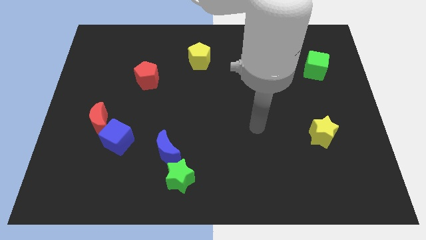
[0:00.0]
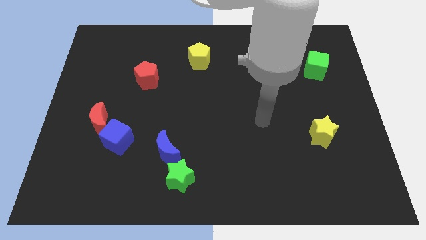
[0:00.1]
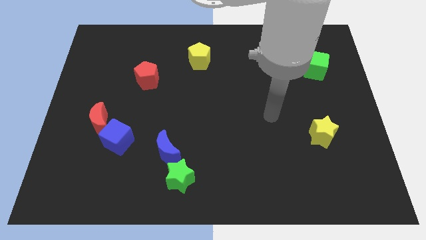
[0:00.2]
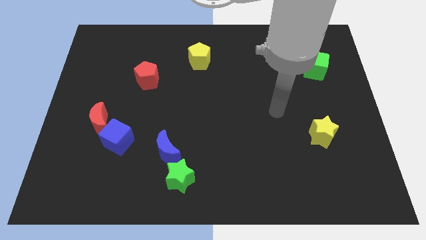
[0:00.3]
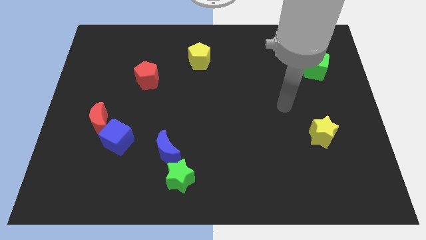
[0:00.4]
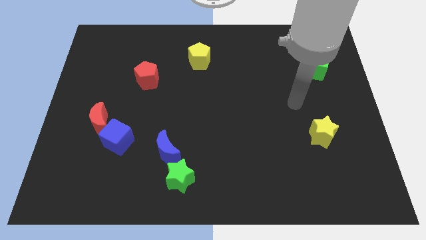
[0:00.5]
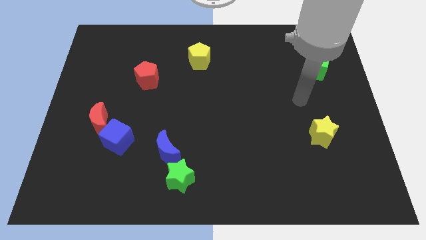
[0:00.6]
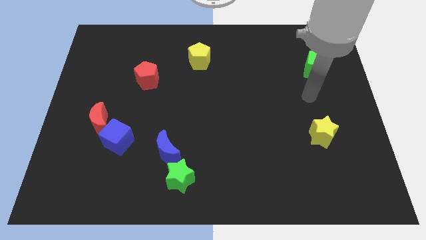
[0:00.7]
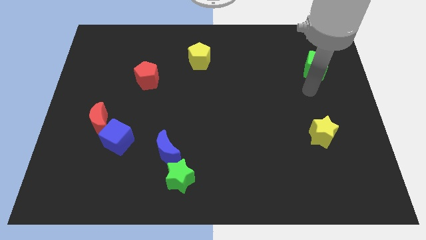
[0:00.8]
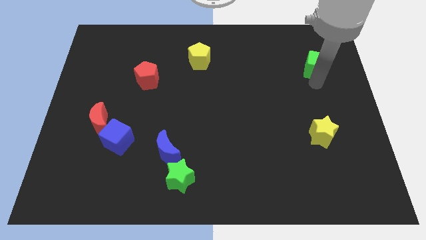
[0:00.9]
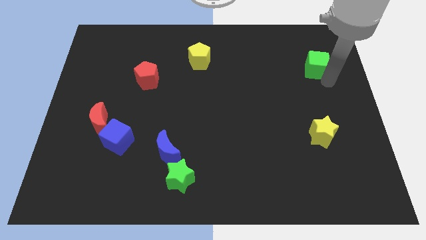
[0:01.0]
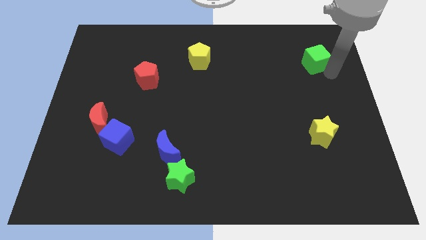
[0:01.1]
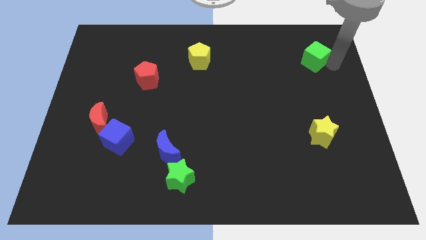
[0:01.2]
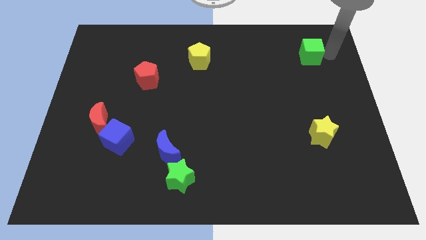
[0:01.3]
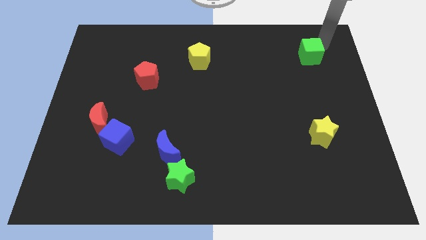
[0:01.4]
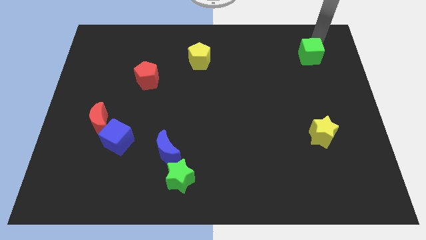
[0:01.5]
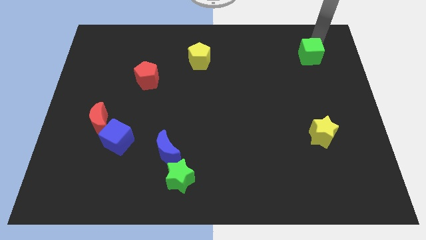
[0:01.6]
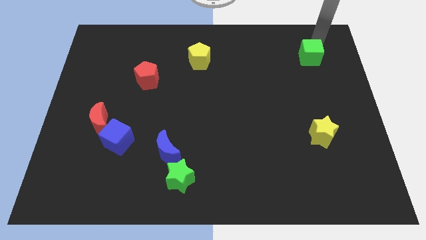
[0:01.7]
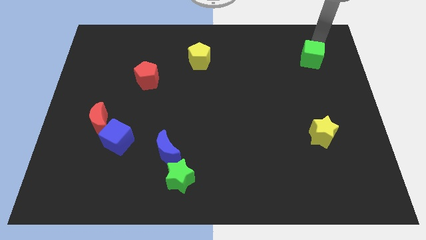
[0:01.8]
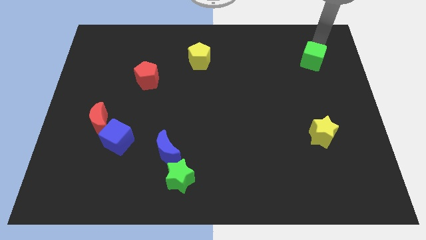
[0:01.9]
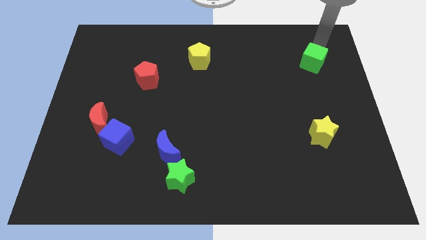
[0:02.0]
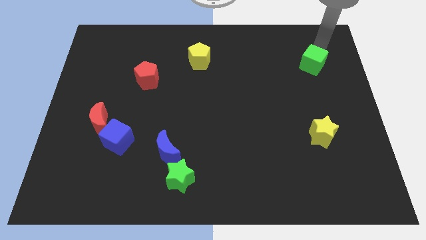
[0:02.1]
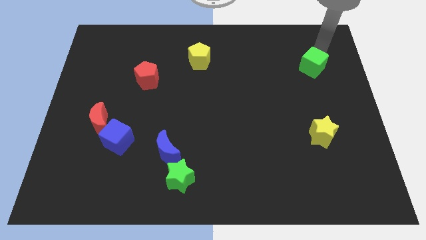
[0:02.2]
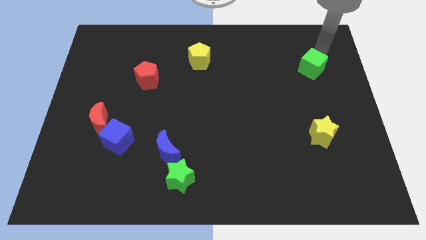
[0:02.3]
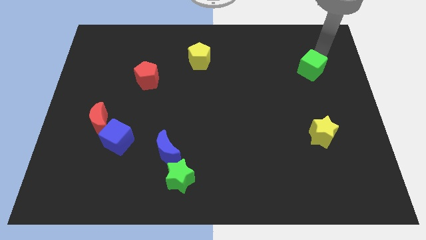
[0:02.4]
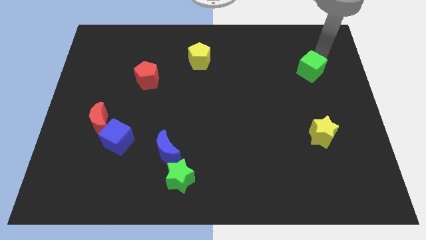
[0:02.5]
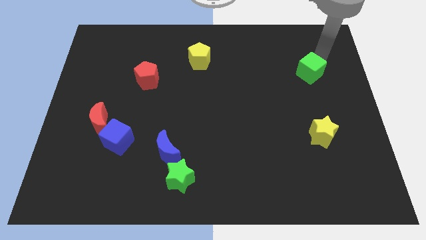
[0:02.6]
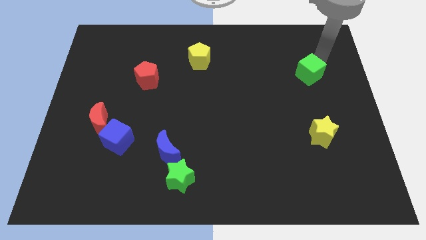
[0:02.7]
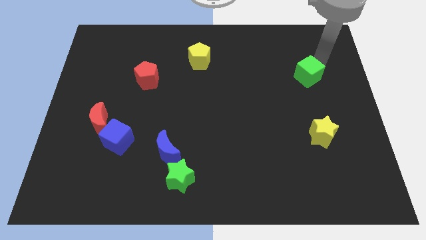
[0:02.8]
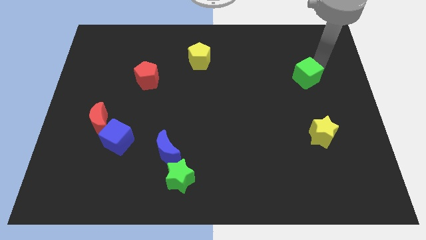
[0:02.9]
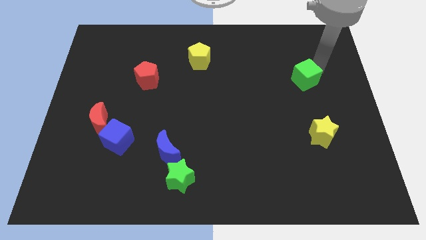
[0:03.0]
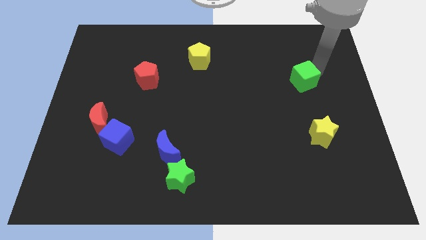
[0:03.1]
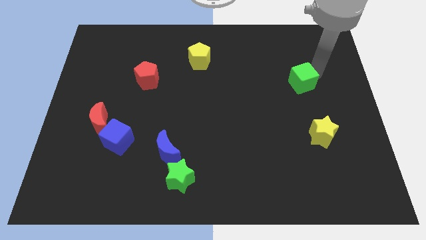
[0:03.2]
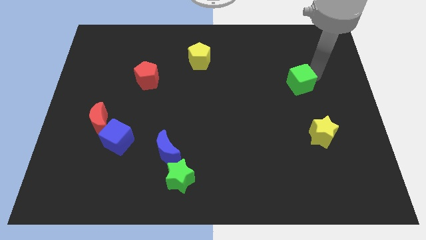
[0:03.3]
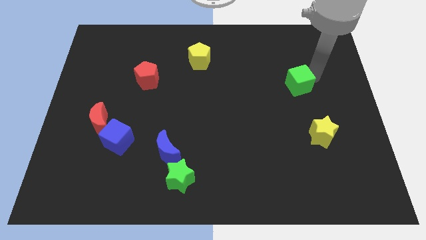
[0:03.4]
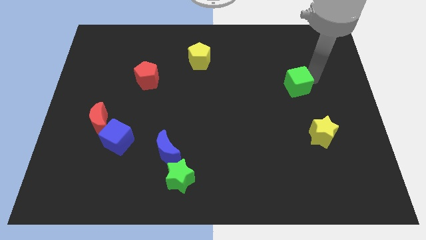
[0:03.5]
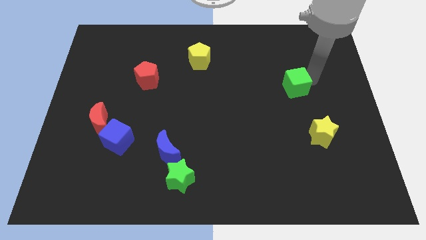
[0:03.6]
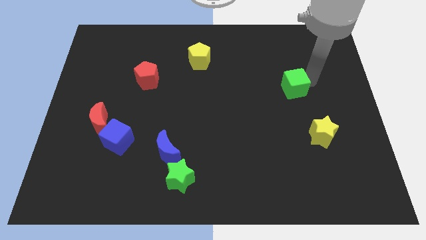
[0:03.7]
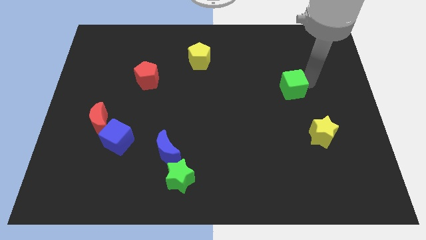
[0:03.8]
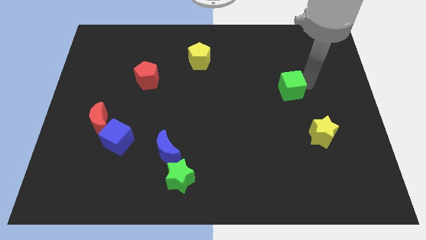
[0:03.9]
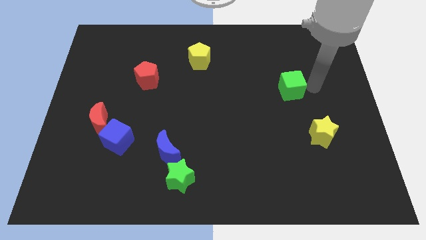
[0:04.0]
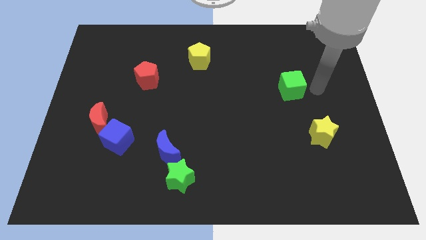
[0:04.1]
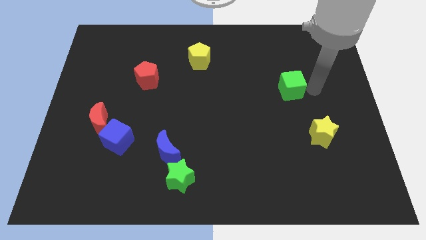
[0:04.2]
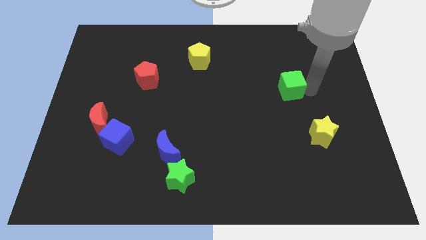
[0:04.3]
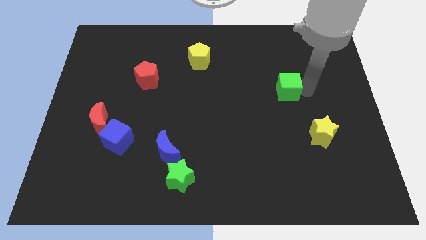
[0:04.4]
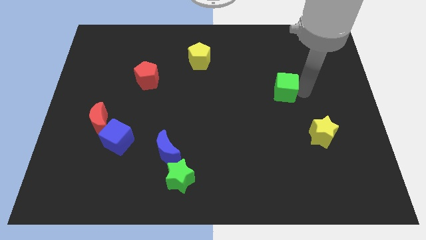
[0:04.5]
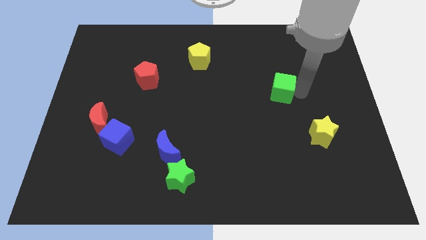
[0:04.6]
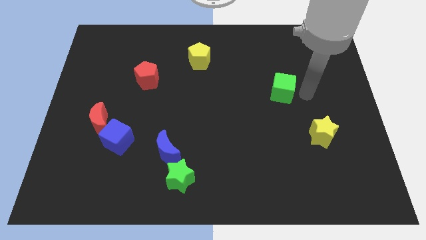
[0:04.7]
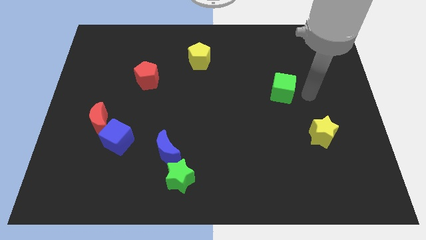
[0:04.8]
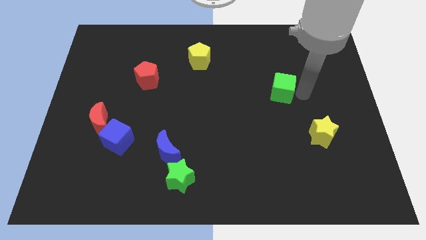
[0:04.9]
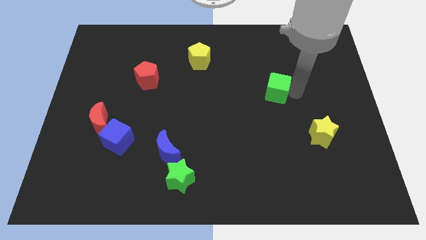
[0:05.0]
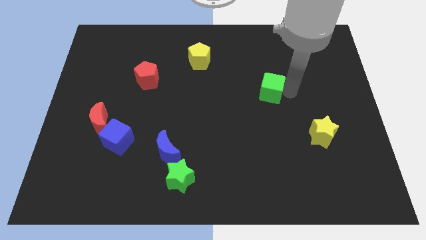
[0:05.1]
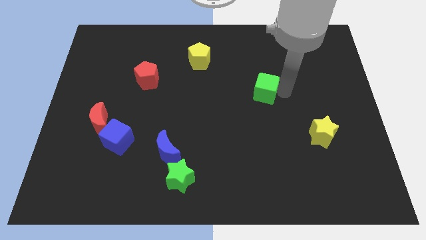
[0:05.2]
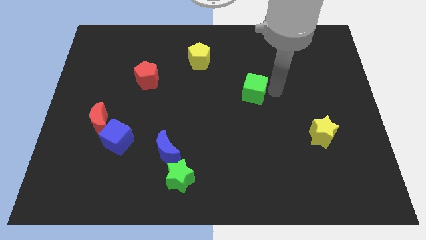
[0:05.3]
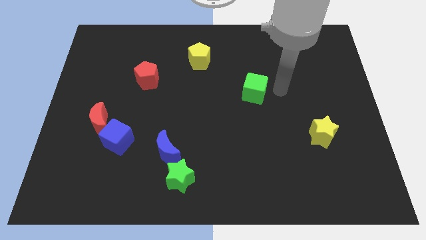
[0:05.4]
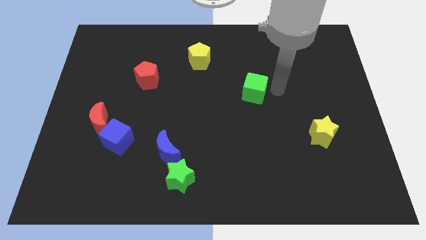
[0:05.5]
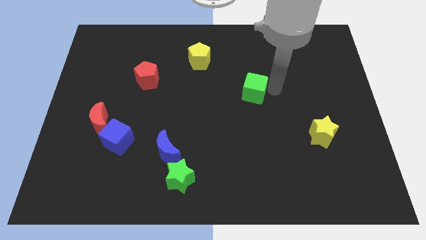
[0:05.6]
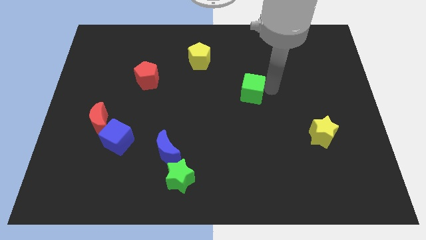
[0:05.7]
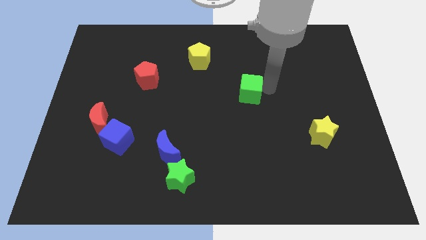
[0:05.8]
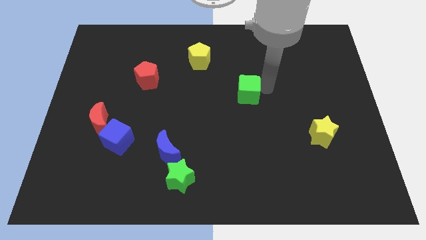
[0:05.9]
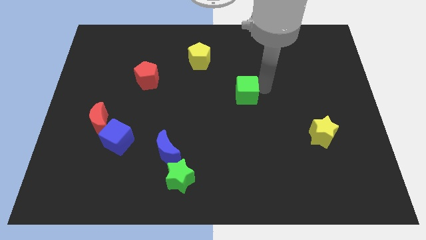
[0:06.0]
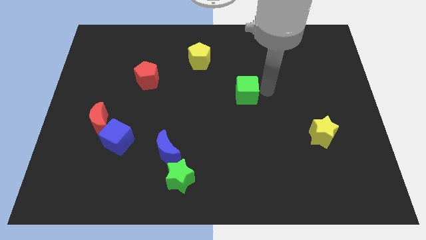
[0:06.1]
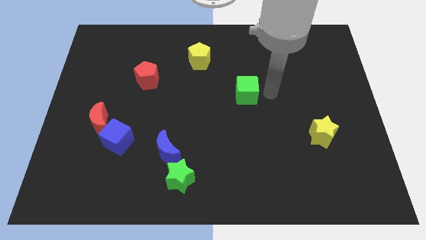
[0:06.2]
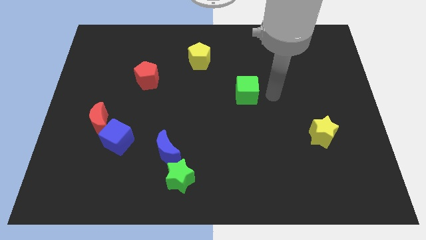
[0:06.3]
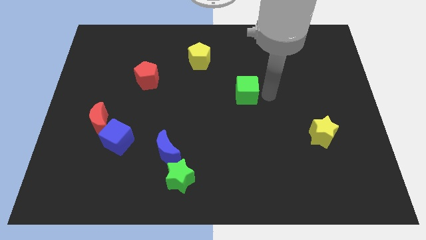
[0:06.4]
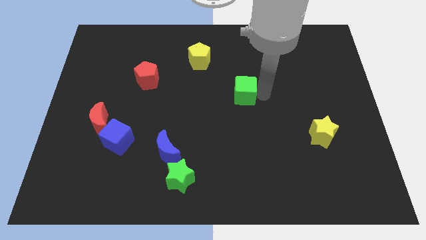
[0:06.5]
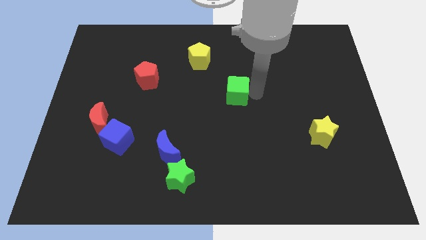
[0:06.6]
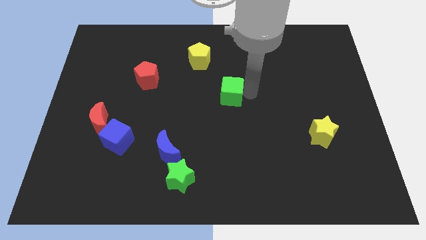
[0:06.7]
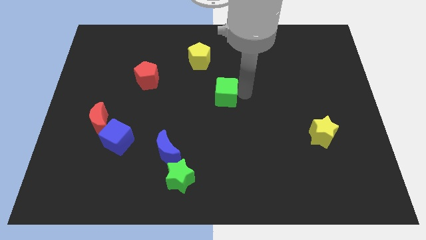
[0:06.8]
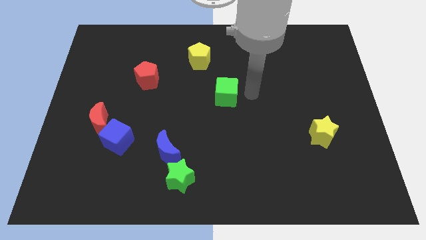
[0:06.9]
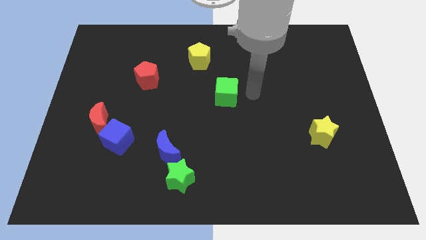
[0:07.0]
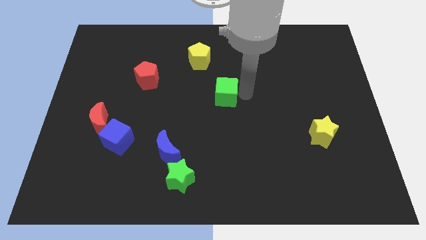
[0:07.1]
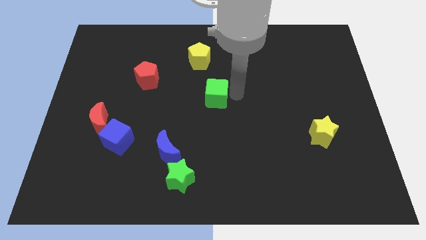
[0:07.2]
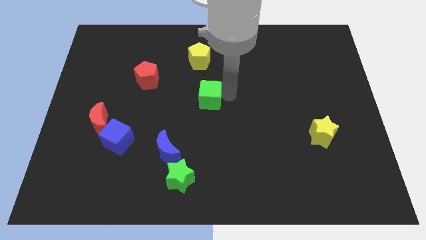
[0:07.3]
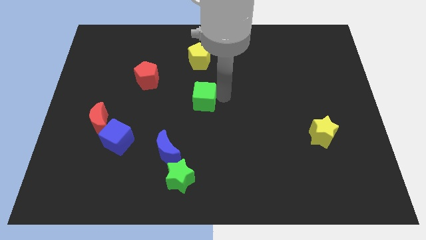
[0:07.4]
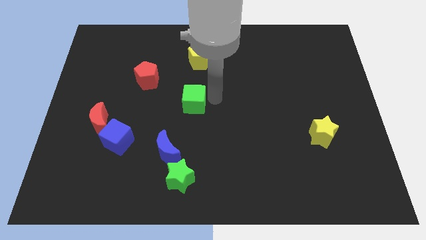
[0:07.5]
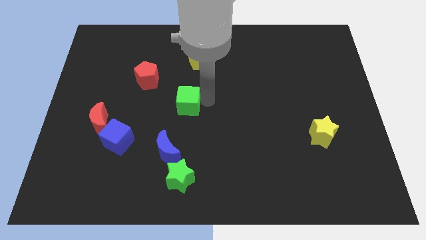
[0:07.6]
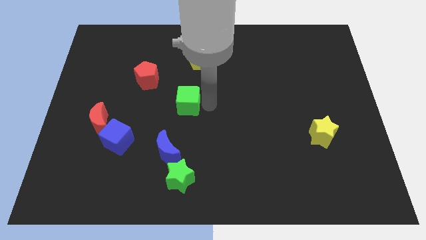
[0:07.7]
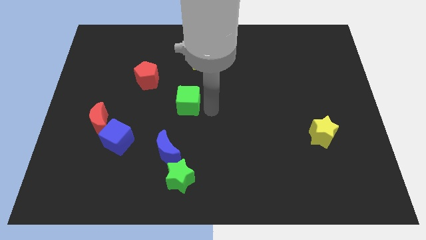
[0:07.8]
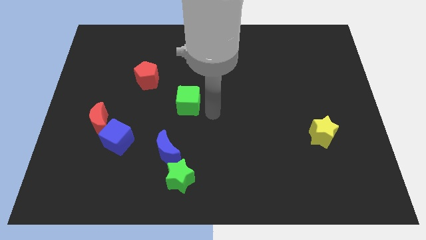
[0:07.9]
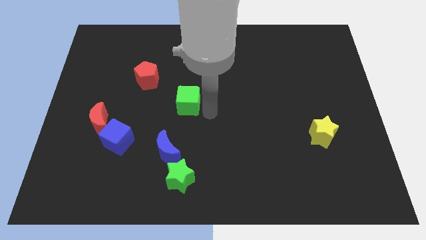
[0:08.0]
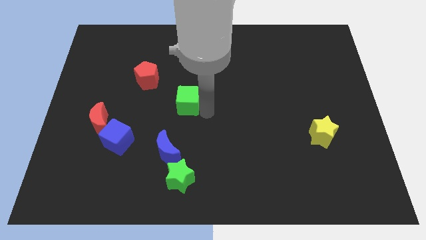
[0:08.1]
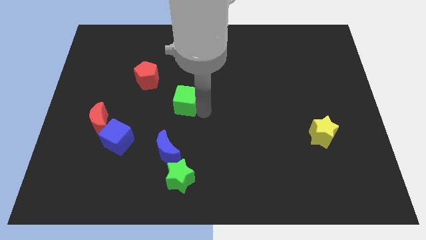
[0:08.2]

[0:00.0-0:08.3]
slide the green cube to the bottom right side of the red pentagon
